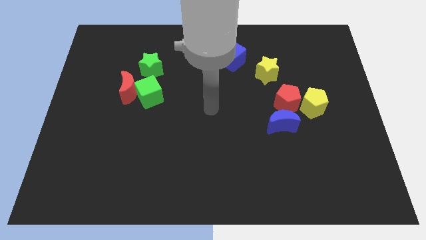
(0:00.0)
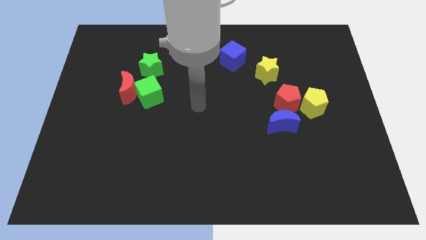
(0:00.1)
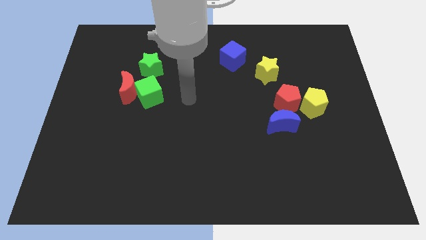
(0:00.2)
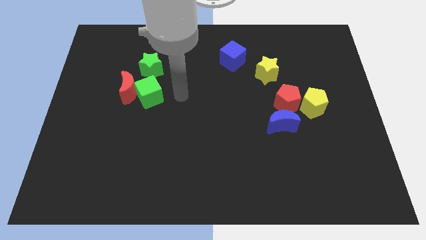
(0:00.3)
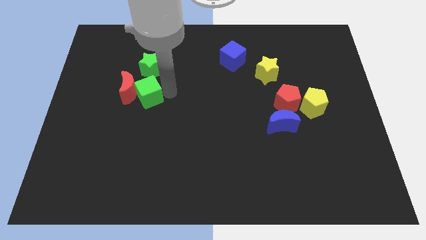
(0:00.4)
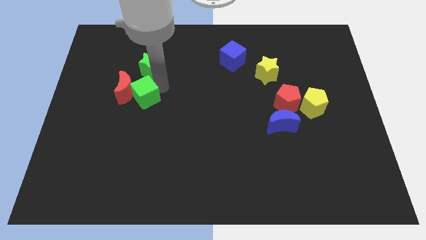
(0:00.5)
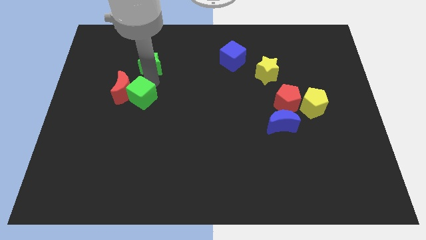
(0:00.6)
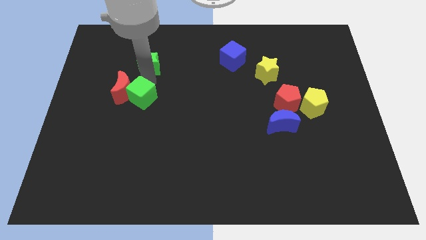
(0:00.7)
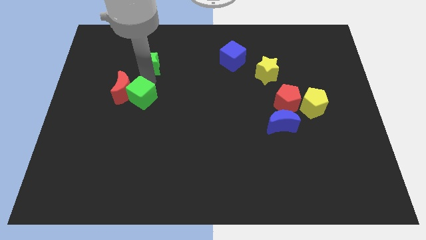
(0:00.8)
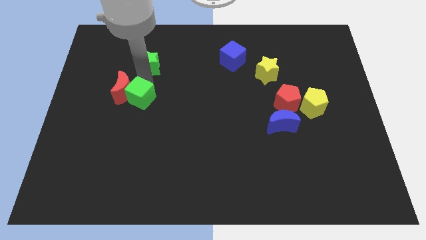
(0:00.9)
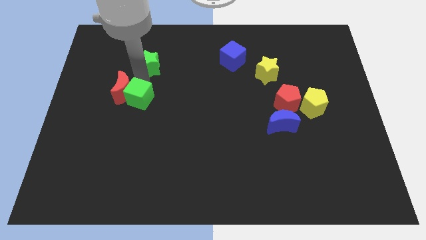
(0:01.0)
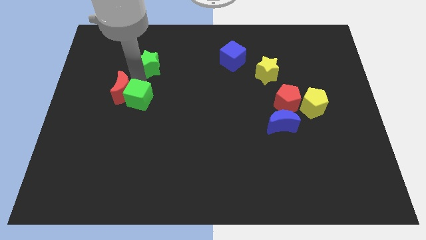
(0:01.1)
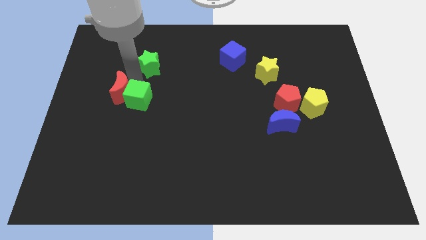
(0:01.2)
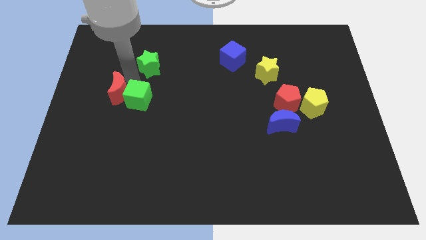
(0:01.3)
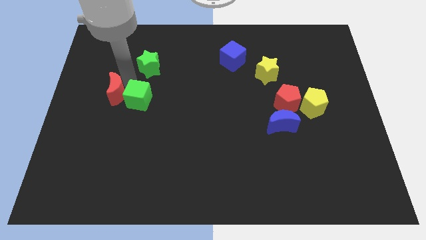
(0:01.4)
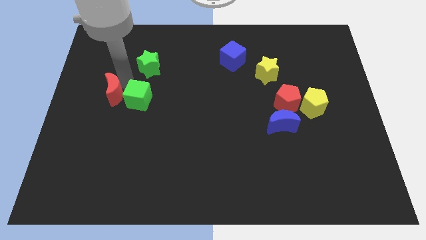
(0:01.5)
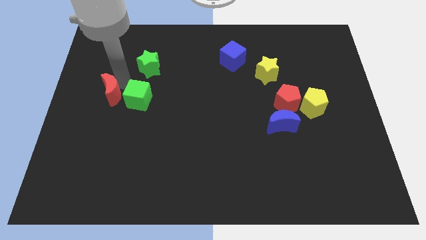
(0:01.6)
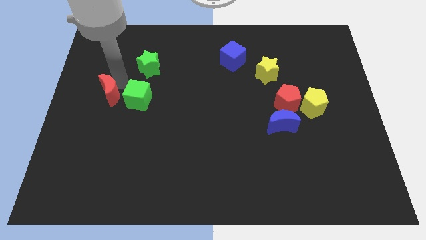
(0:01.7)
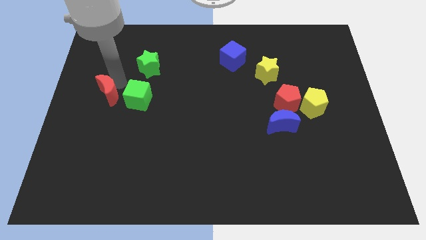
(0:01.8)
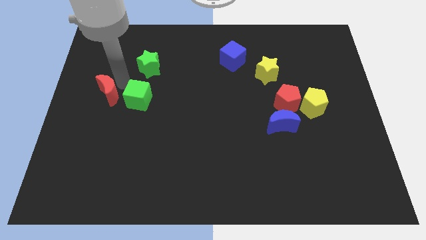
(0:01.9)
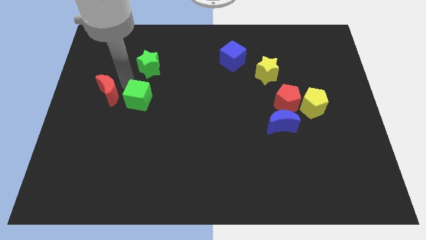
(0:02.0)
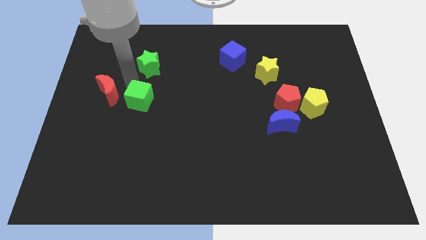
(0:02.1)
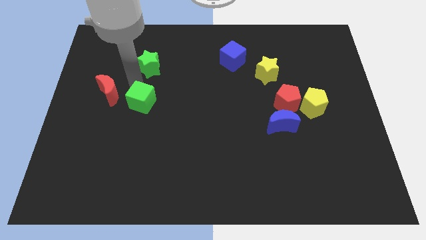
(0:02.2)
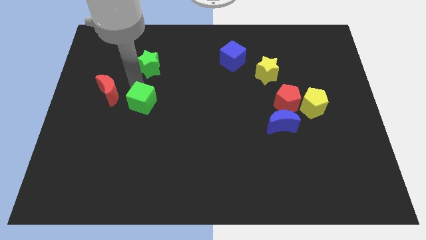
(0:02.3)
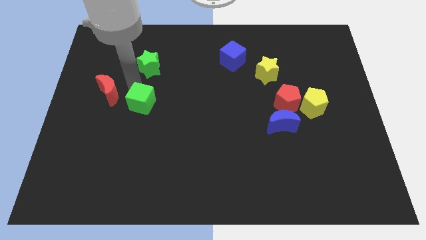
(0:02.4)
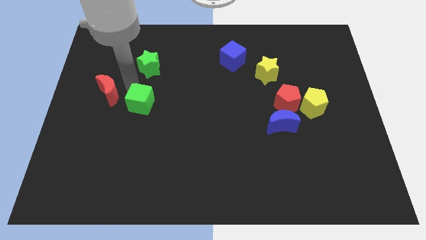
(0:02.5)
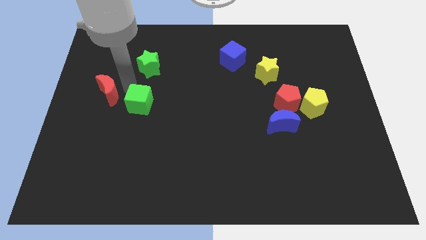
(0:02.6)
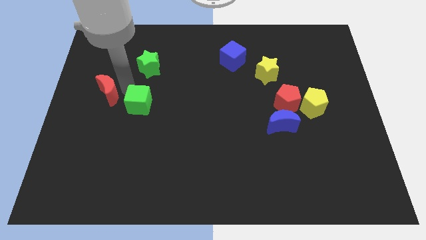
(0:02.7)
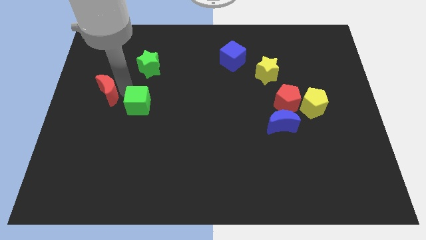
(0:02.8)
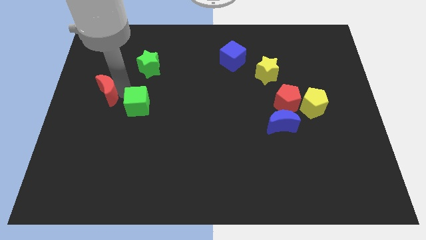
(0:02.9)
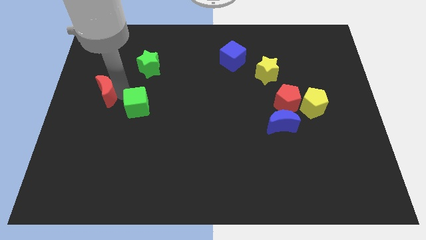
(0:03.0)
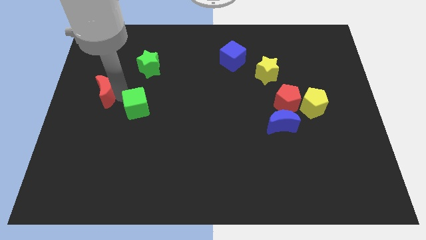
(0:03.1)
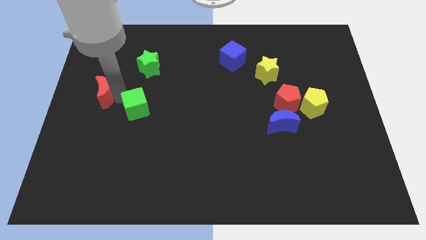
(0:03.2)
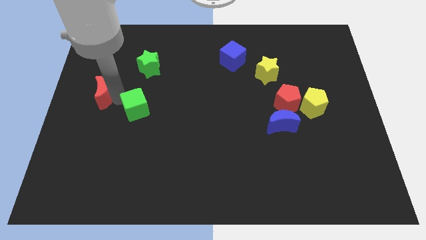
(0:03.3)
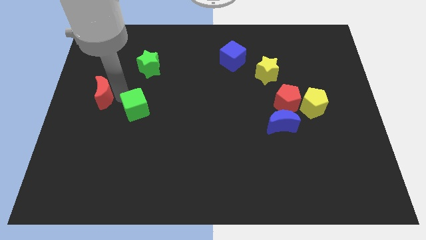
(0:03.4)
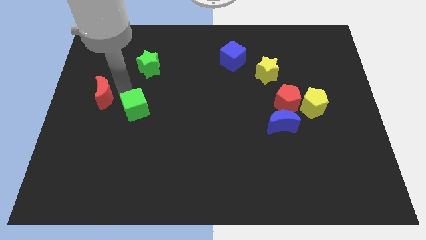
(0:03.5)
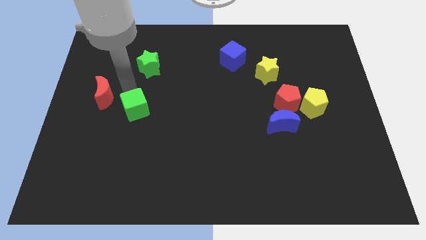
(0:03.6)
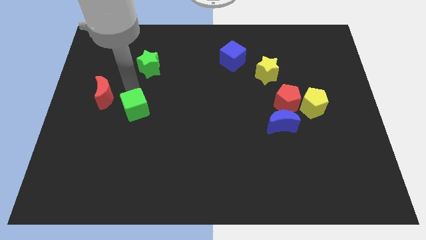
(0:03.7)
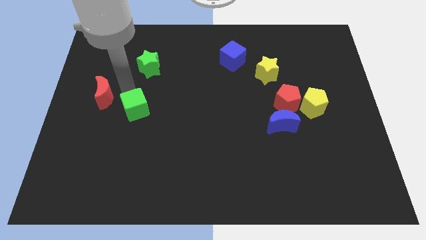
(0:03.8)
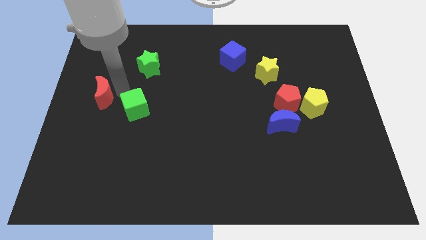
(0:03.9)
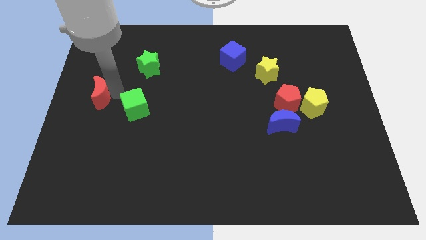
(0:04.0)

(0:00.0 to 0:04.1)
pull the red moon apart from the green cube and green star

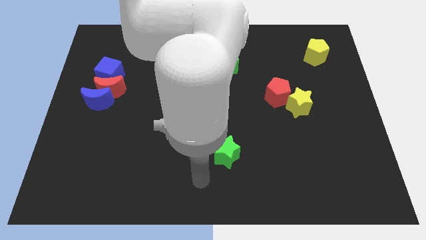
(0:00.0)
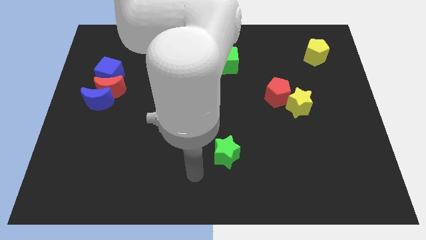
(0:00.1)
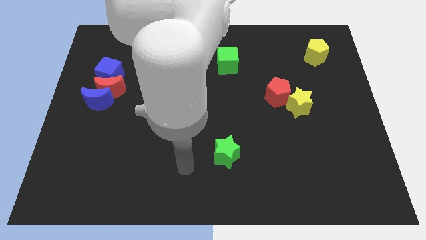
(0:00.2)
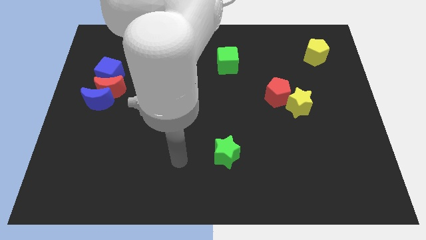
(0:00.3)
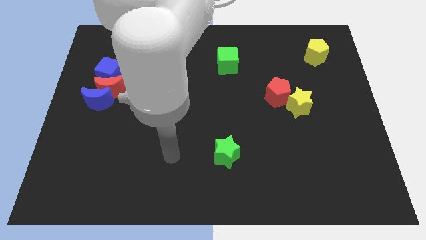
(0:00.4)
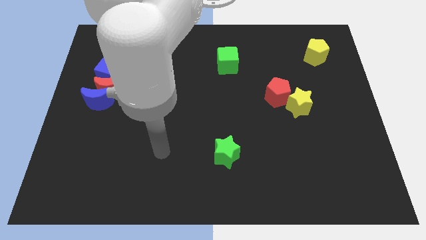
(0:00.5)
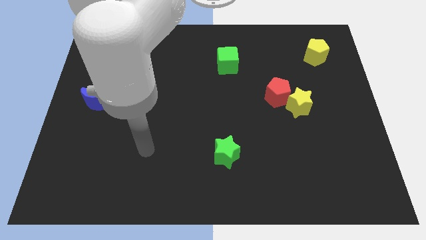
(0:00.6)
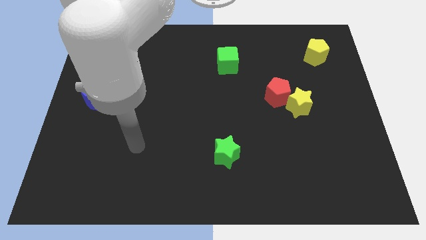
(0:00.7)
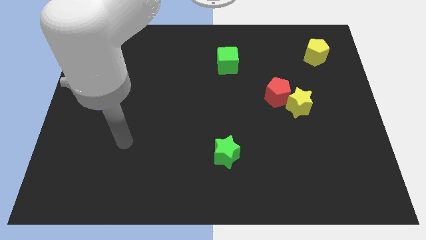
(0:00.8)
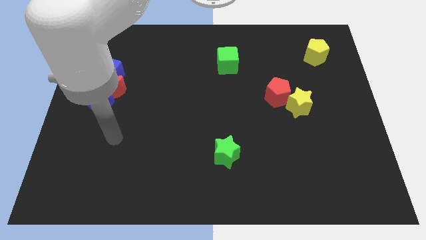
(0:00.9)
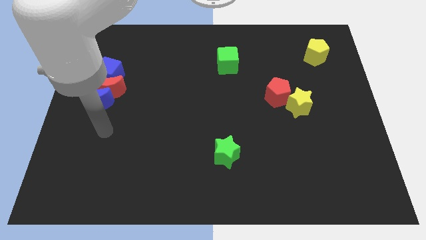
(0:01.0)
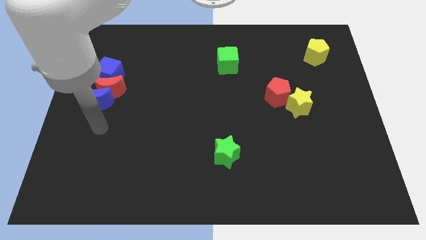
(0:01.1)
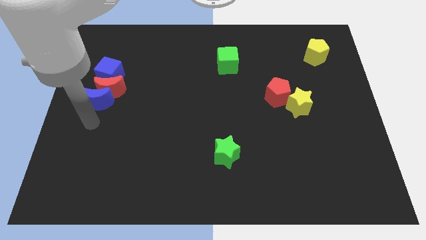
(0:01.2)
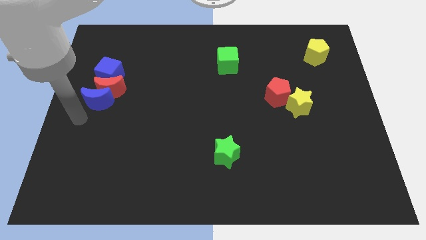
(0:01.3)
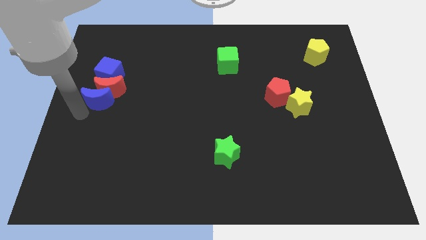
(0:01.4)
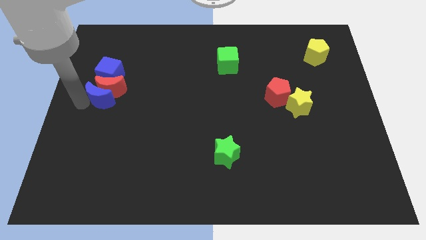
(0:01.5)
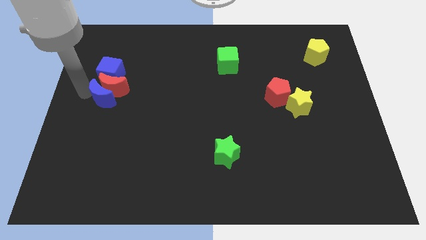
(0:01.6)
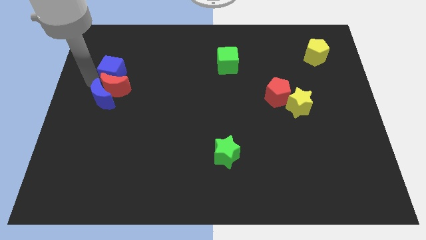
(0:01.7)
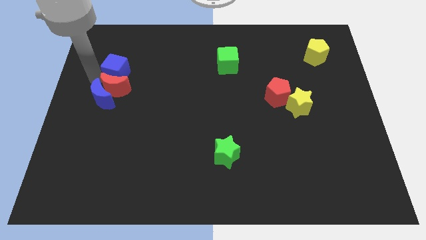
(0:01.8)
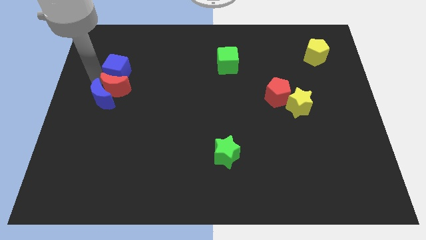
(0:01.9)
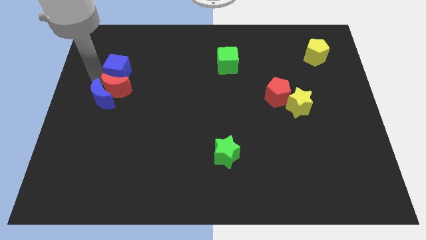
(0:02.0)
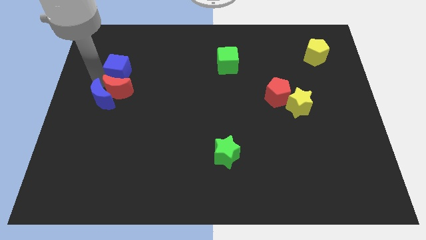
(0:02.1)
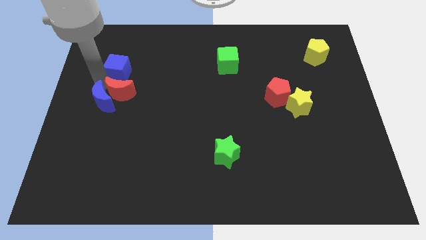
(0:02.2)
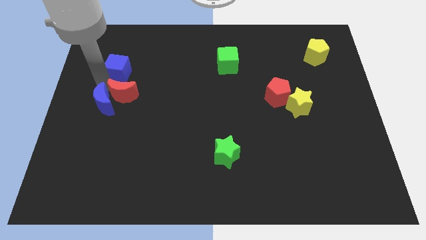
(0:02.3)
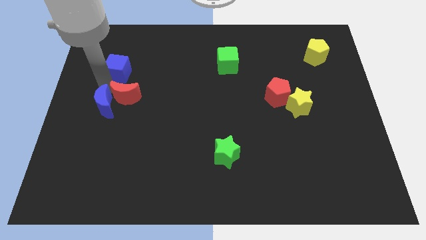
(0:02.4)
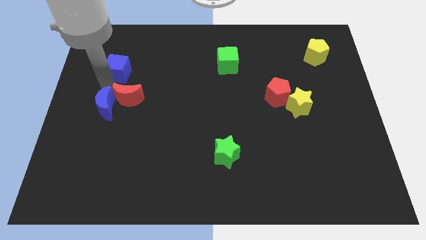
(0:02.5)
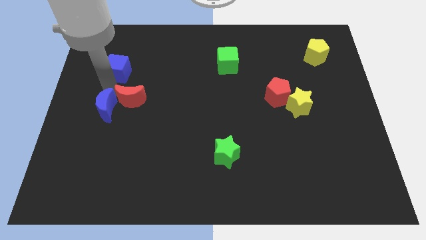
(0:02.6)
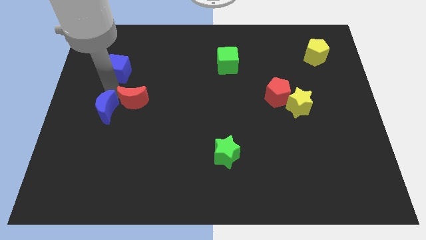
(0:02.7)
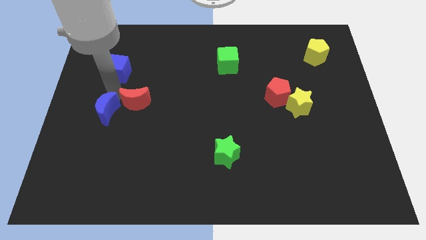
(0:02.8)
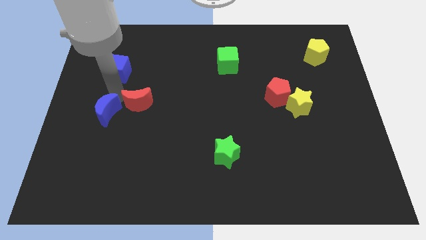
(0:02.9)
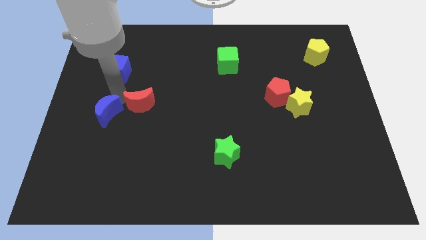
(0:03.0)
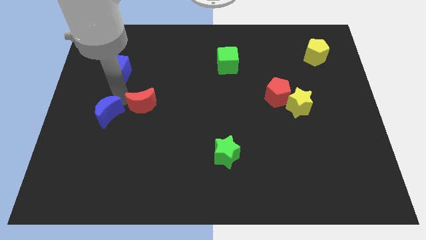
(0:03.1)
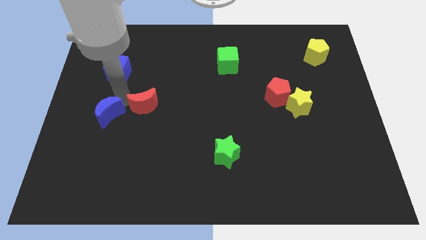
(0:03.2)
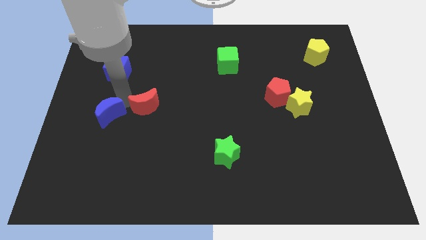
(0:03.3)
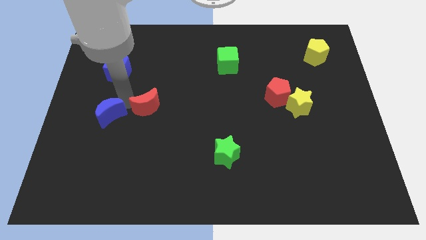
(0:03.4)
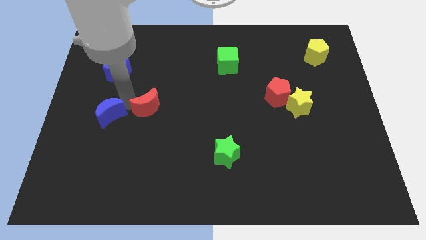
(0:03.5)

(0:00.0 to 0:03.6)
move the red moon away from the blue moon and blue cube

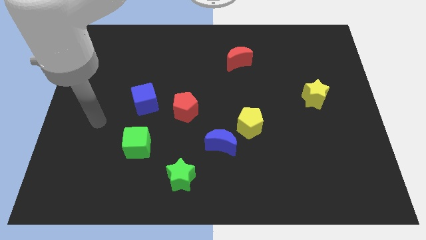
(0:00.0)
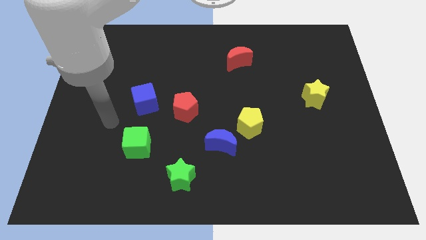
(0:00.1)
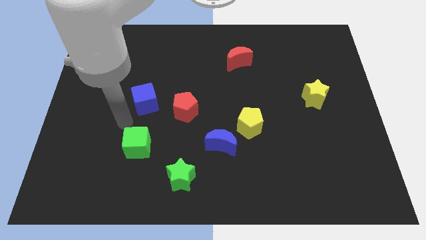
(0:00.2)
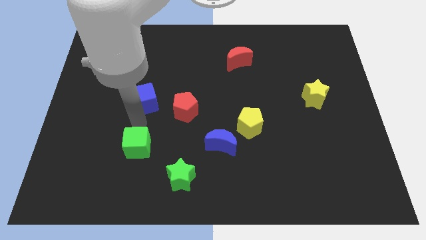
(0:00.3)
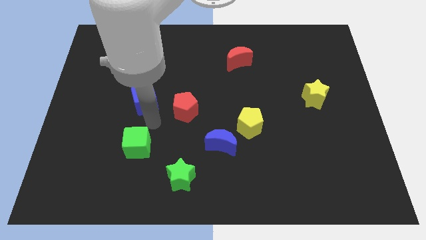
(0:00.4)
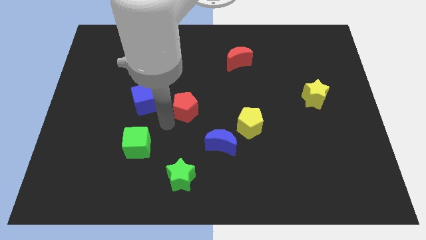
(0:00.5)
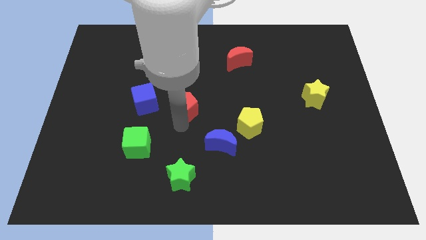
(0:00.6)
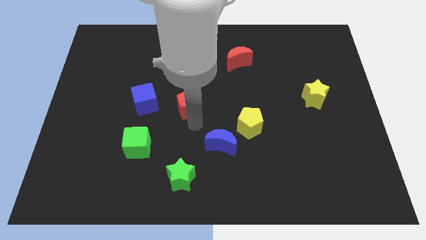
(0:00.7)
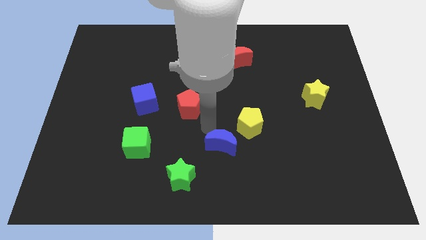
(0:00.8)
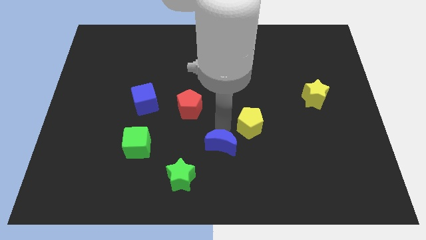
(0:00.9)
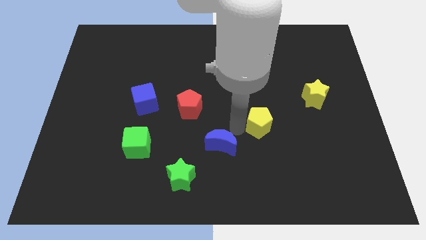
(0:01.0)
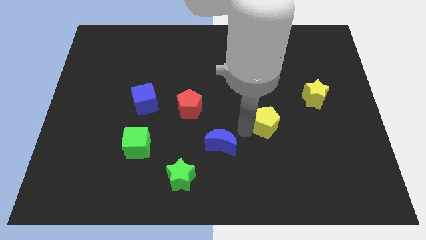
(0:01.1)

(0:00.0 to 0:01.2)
move the blue moon away from the yellow pentagon

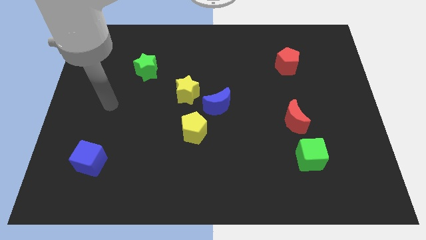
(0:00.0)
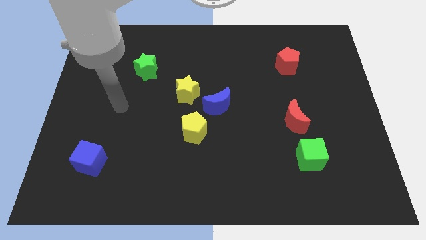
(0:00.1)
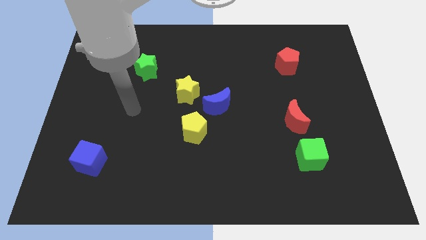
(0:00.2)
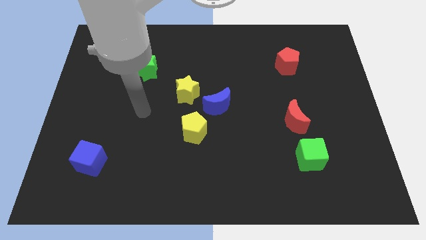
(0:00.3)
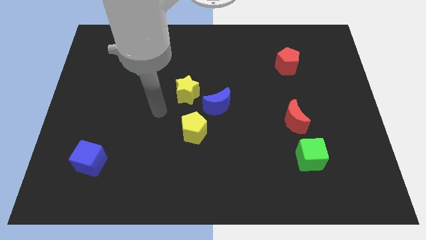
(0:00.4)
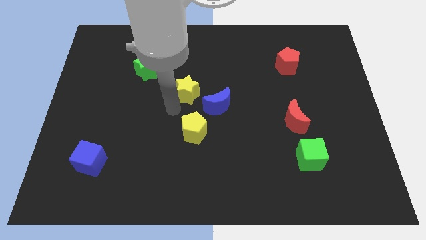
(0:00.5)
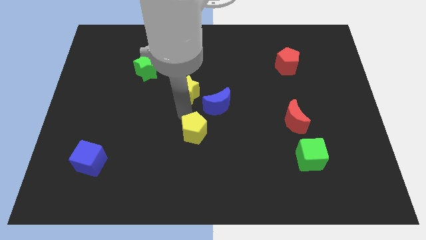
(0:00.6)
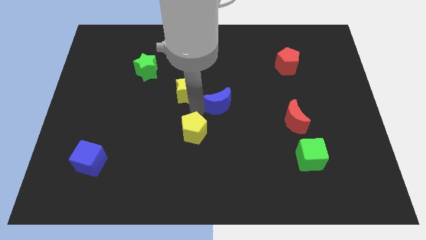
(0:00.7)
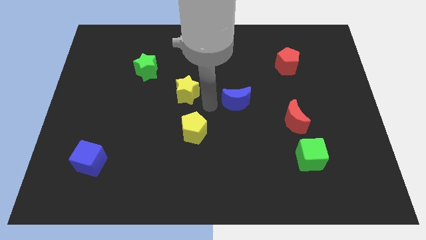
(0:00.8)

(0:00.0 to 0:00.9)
pull the yellow star apart from the blue moon
